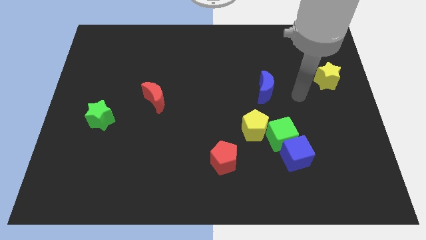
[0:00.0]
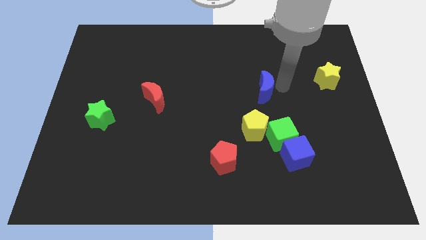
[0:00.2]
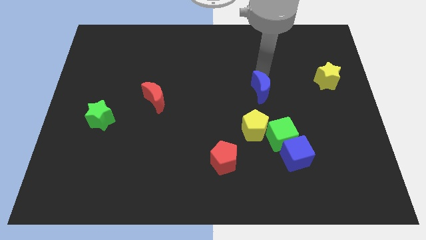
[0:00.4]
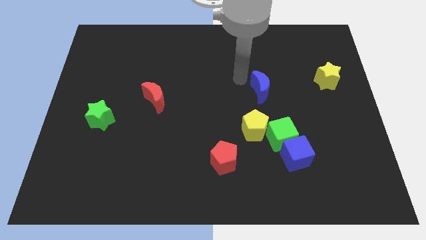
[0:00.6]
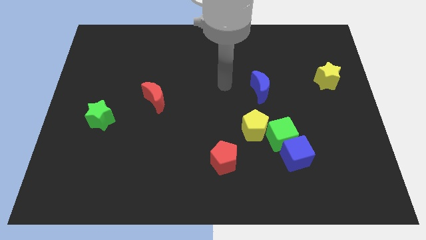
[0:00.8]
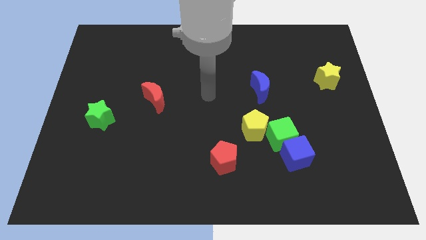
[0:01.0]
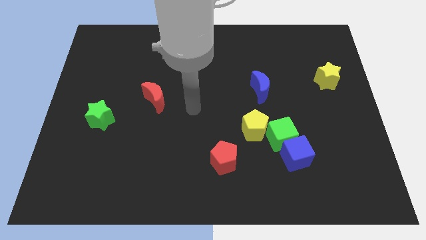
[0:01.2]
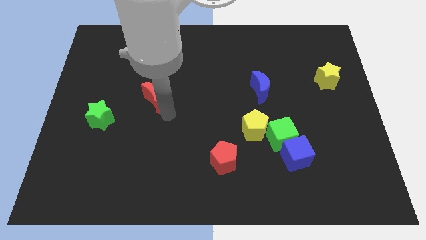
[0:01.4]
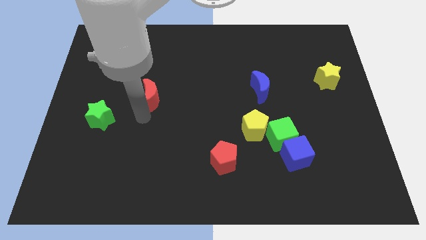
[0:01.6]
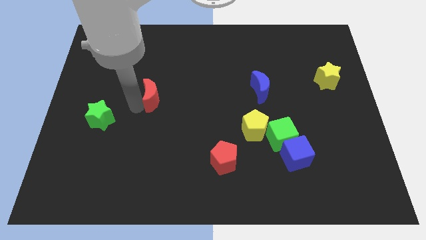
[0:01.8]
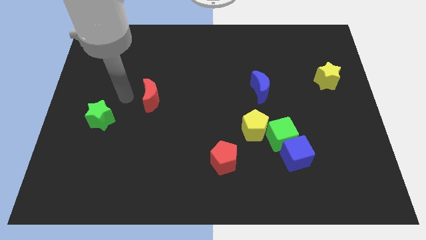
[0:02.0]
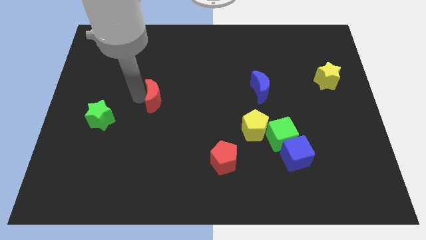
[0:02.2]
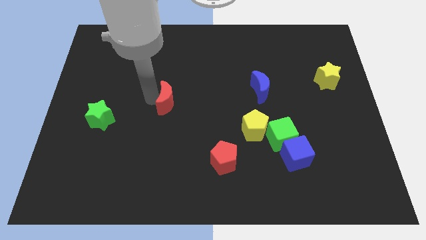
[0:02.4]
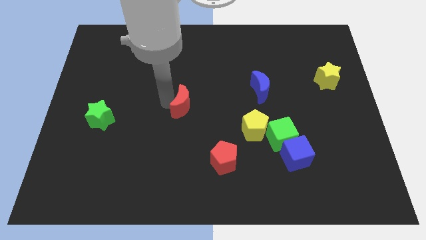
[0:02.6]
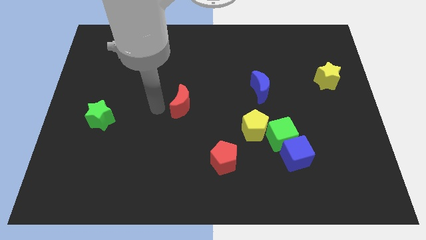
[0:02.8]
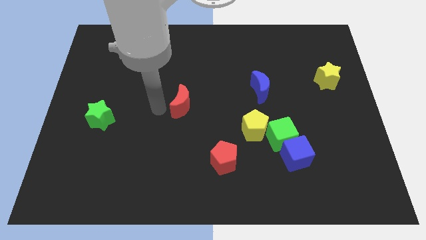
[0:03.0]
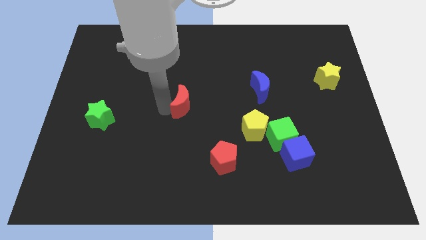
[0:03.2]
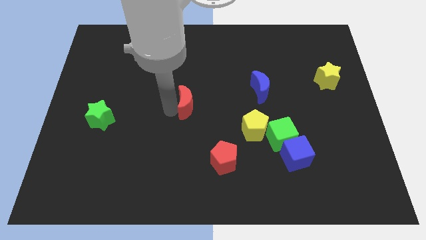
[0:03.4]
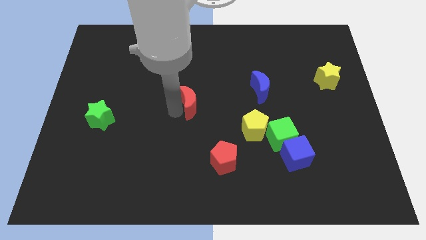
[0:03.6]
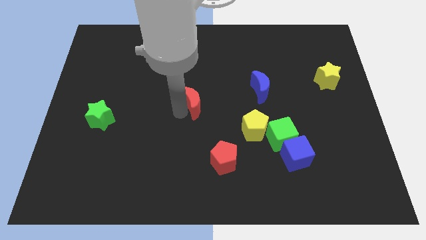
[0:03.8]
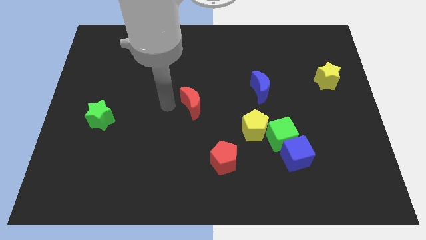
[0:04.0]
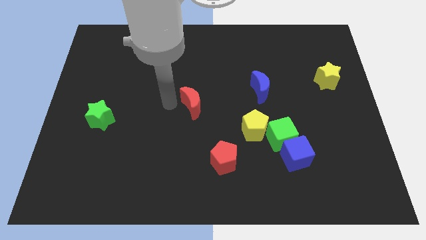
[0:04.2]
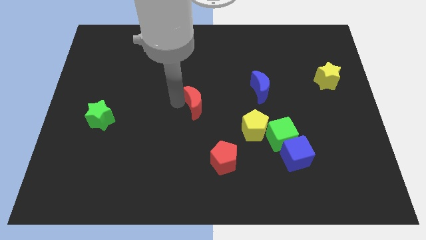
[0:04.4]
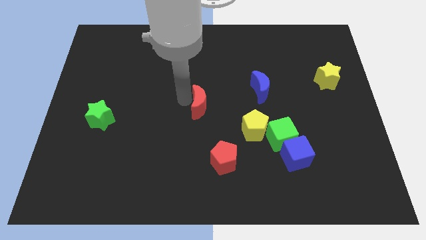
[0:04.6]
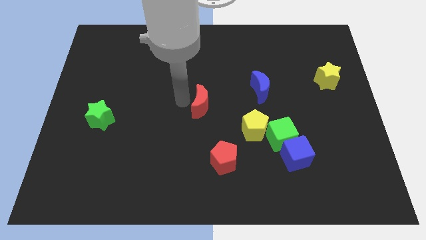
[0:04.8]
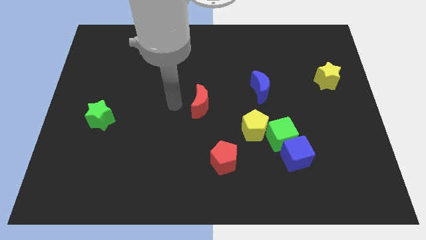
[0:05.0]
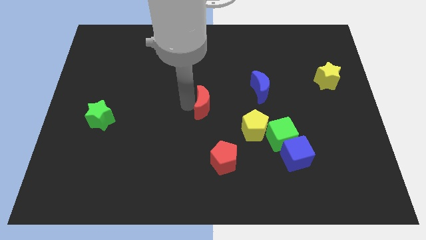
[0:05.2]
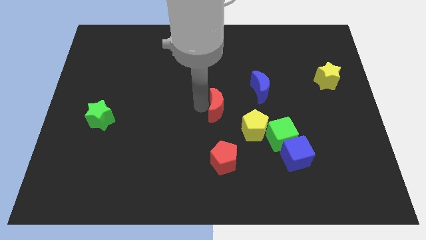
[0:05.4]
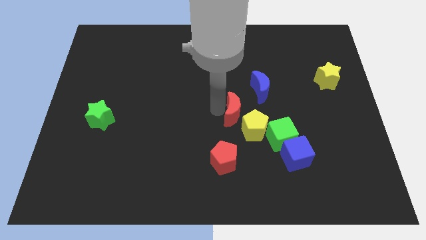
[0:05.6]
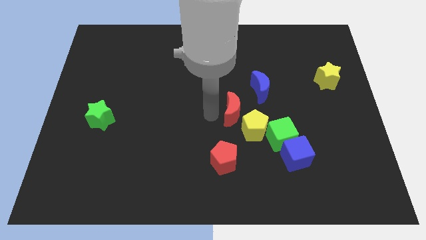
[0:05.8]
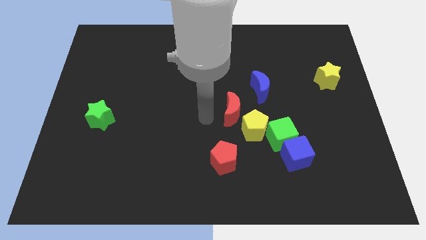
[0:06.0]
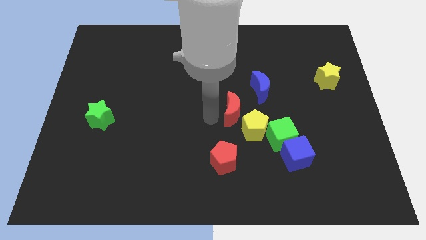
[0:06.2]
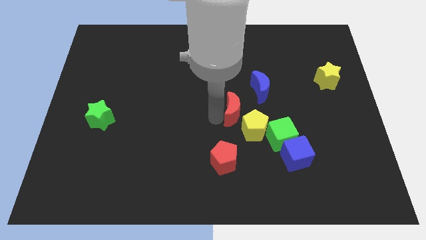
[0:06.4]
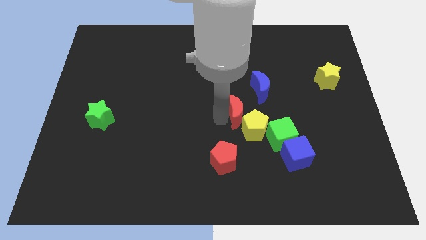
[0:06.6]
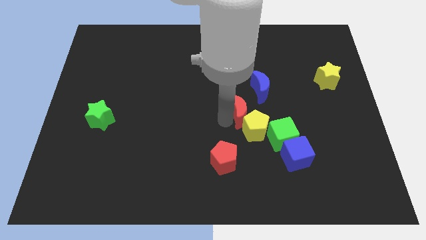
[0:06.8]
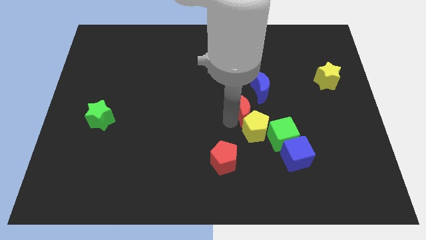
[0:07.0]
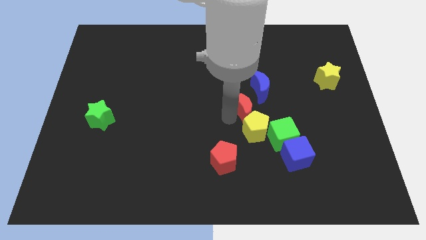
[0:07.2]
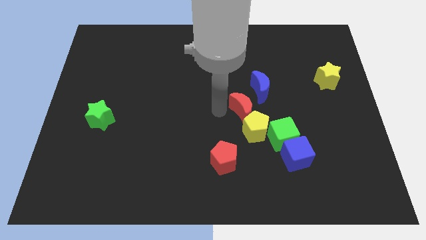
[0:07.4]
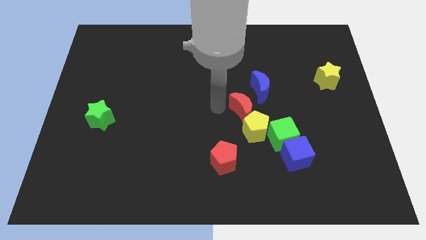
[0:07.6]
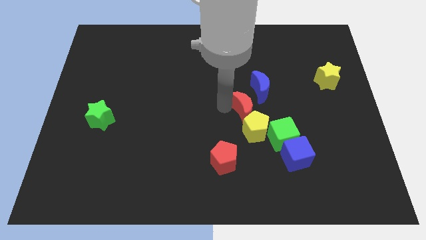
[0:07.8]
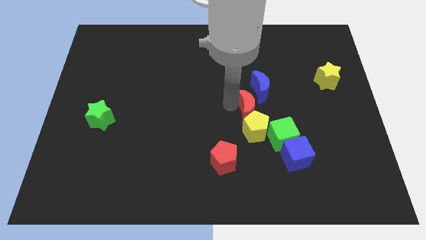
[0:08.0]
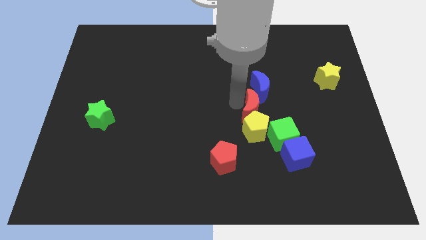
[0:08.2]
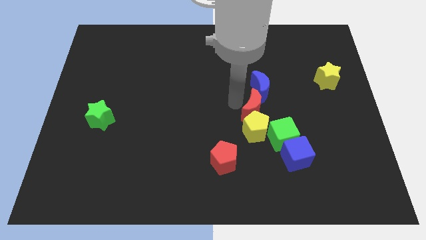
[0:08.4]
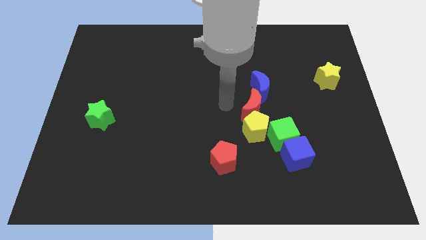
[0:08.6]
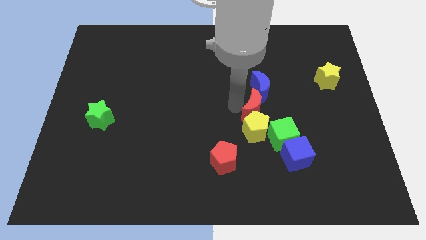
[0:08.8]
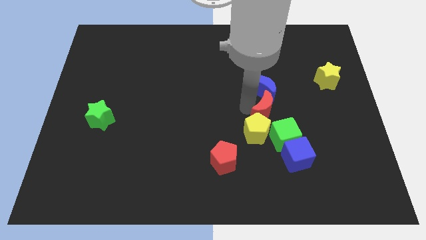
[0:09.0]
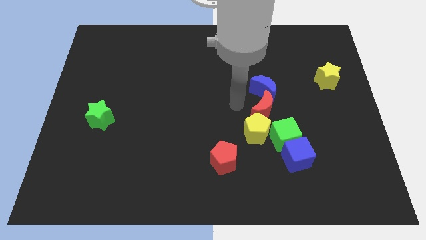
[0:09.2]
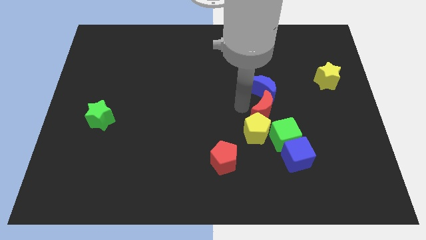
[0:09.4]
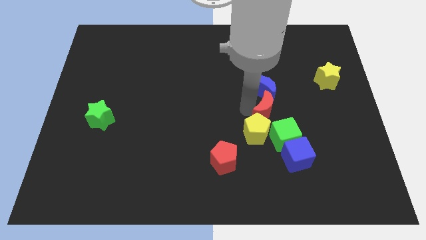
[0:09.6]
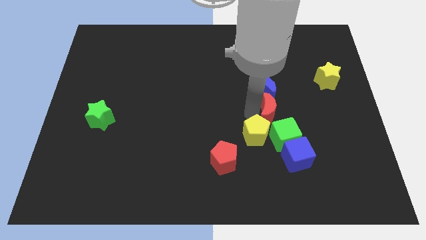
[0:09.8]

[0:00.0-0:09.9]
move the red moon to the top of the blue cube

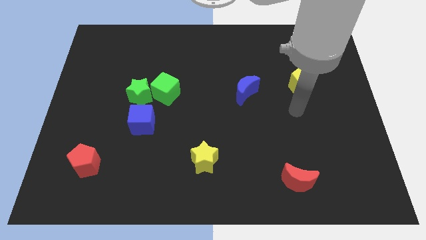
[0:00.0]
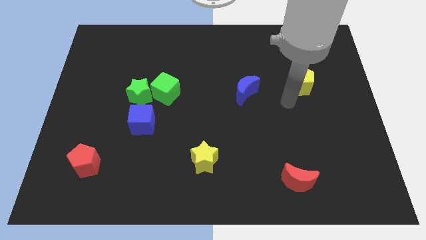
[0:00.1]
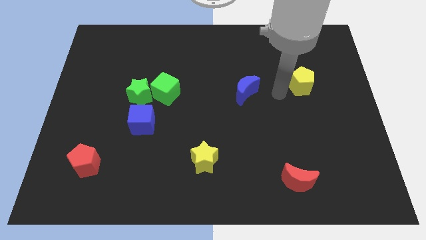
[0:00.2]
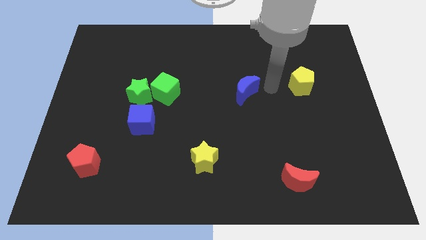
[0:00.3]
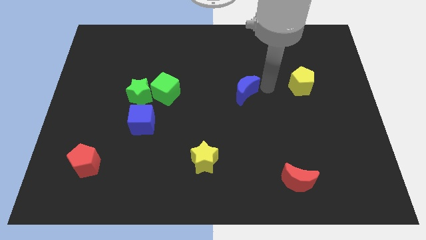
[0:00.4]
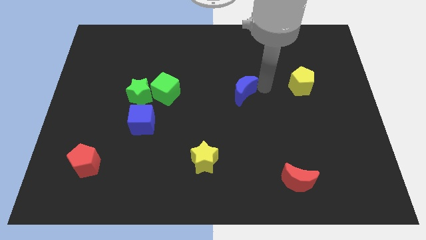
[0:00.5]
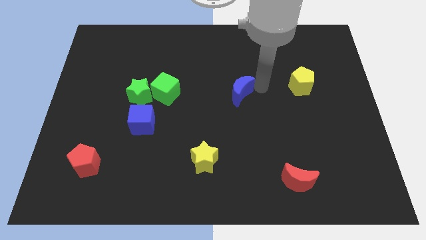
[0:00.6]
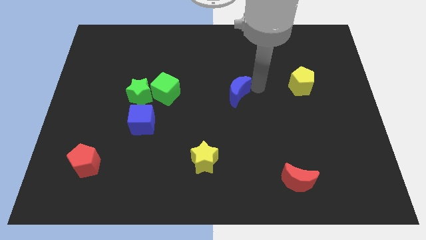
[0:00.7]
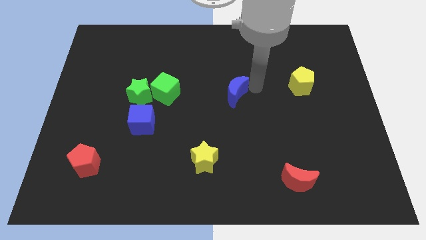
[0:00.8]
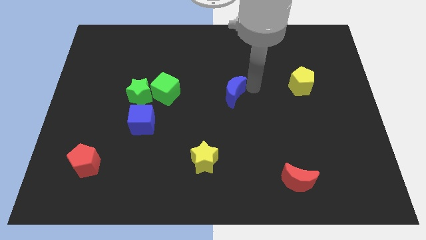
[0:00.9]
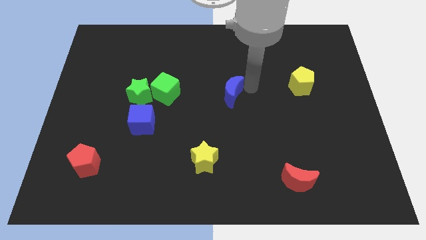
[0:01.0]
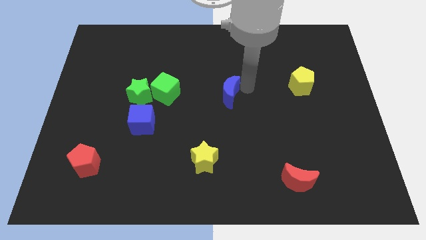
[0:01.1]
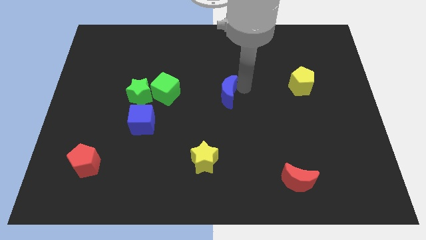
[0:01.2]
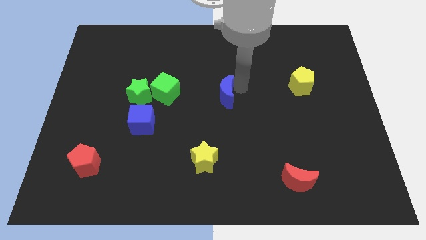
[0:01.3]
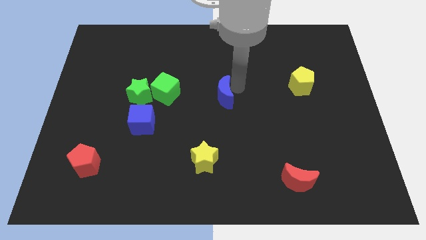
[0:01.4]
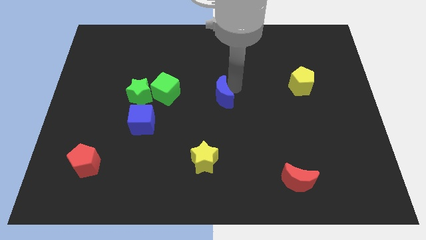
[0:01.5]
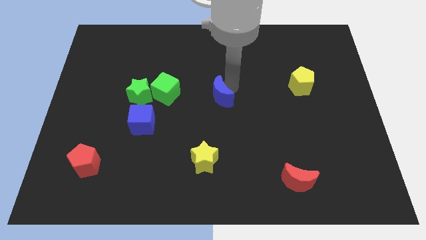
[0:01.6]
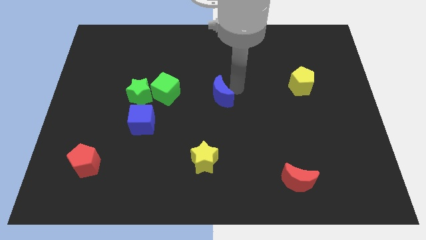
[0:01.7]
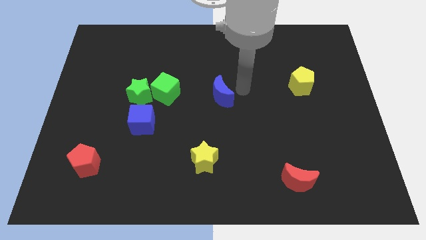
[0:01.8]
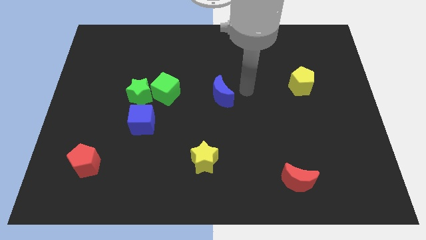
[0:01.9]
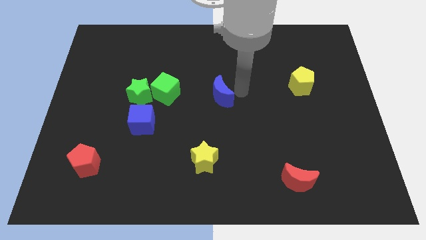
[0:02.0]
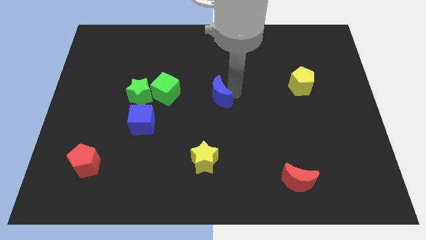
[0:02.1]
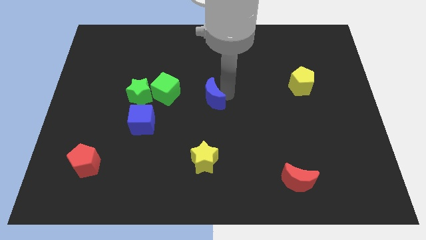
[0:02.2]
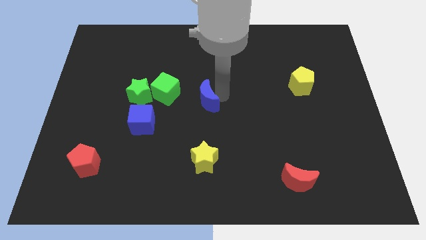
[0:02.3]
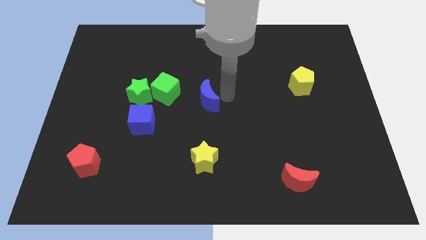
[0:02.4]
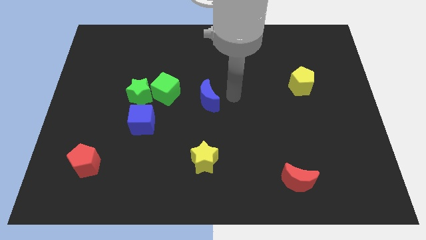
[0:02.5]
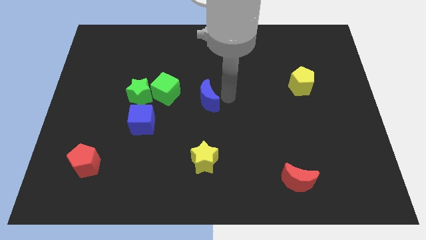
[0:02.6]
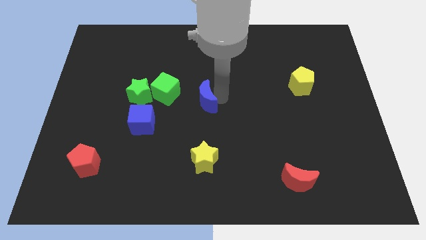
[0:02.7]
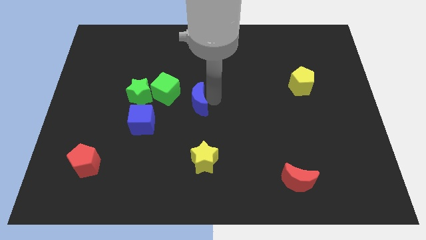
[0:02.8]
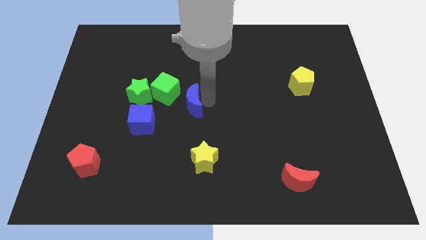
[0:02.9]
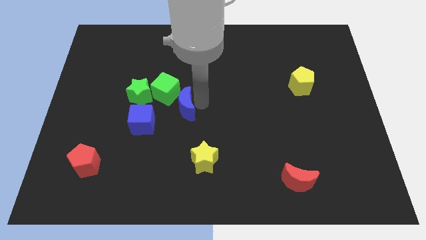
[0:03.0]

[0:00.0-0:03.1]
slide the blue moon diagonally up and to the right of the blue cube
